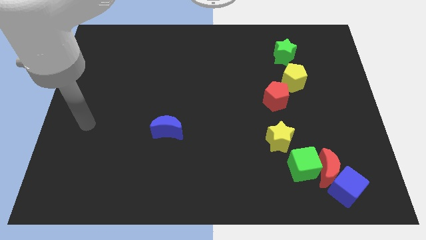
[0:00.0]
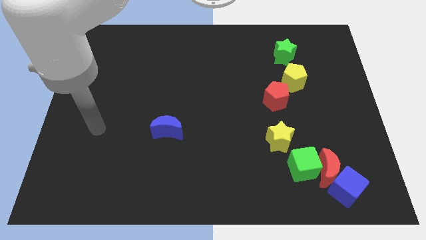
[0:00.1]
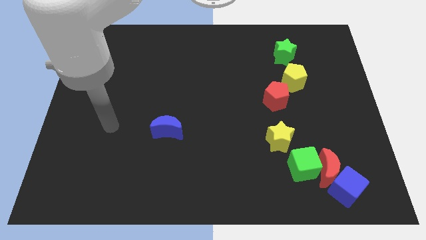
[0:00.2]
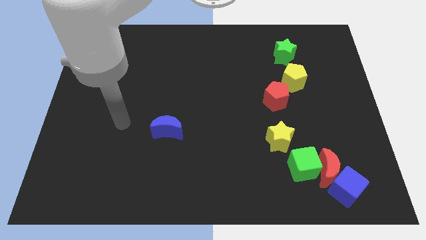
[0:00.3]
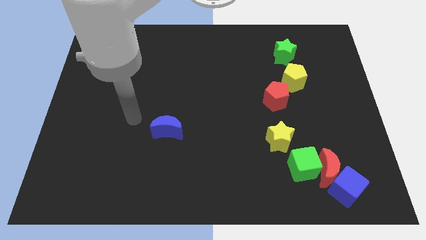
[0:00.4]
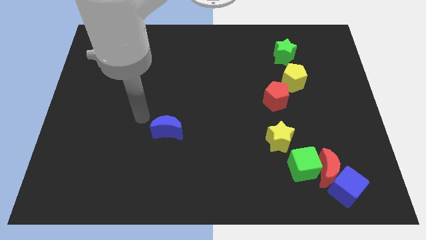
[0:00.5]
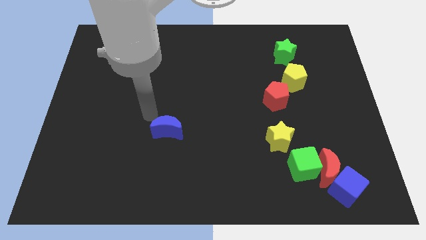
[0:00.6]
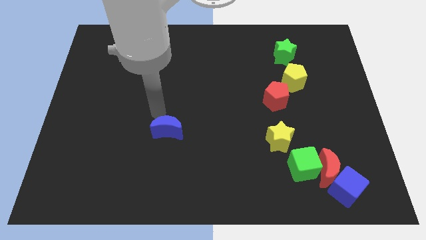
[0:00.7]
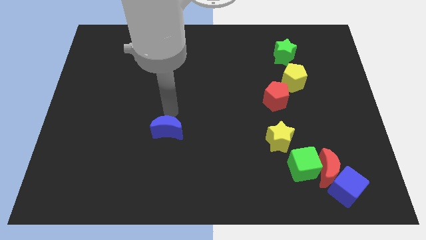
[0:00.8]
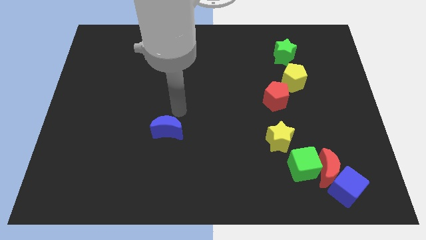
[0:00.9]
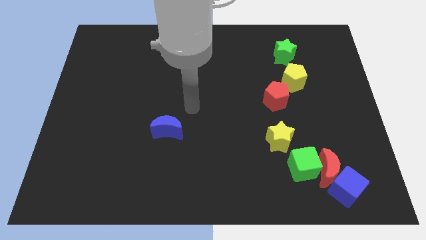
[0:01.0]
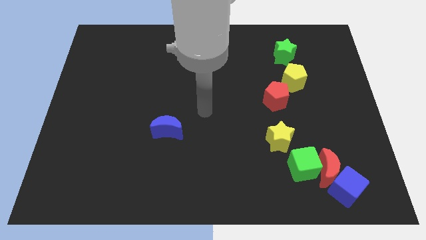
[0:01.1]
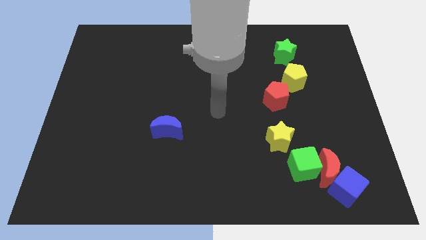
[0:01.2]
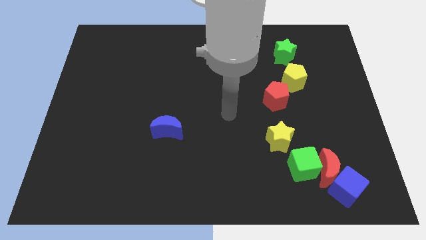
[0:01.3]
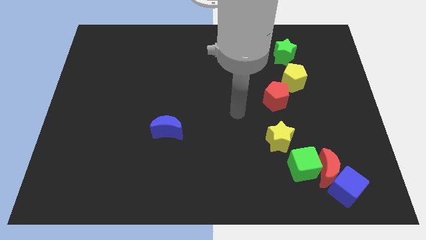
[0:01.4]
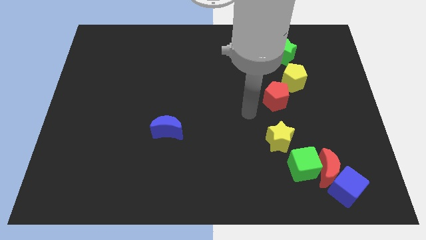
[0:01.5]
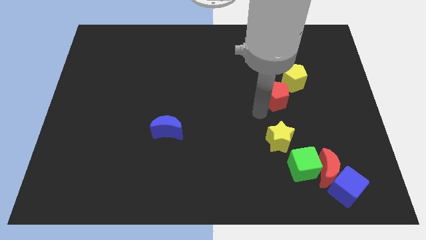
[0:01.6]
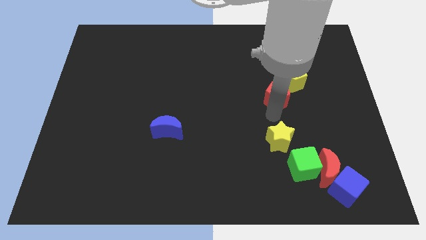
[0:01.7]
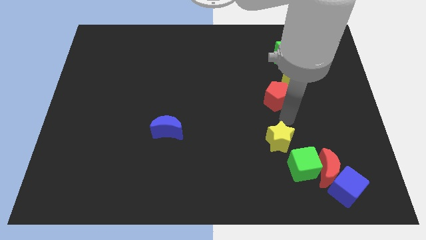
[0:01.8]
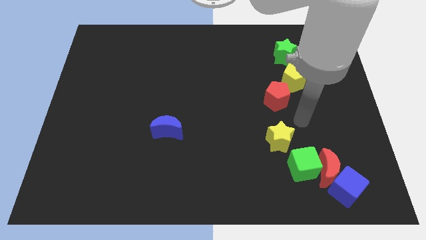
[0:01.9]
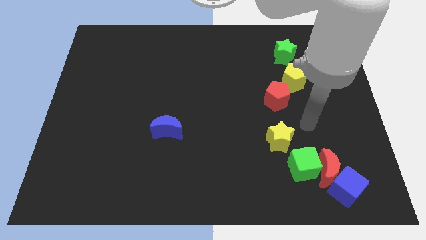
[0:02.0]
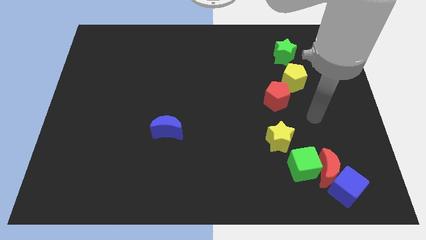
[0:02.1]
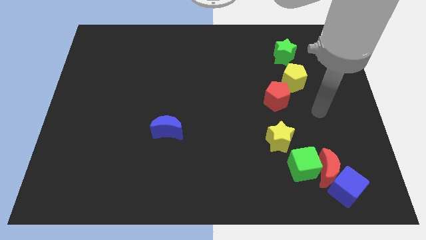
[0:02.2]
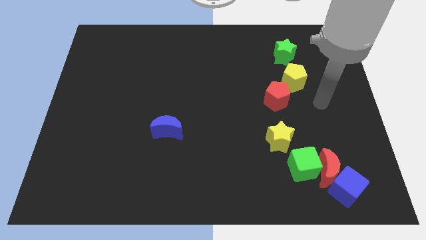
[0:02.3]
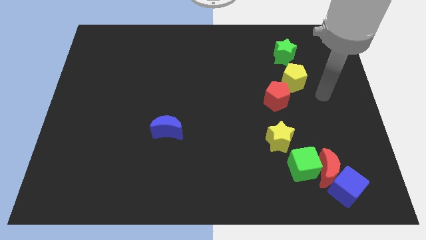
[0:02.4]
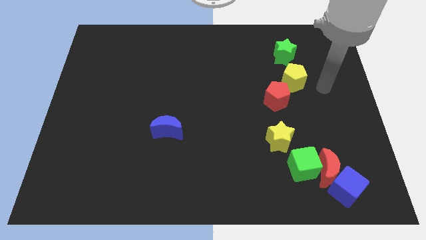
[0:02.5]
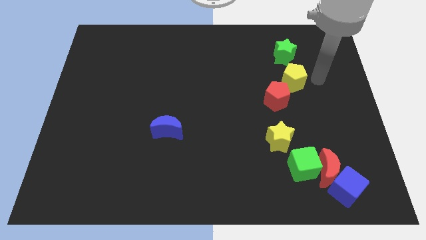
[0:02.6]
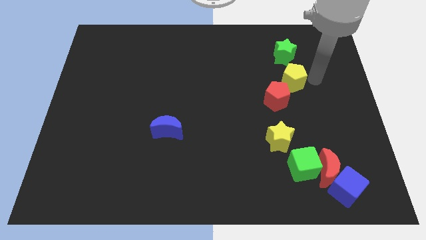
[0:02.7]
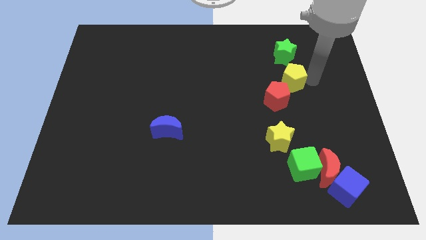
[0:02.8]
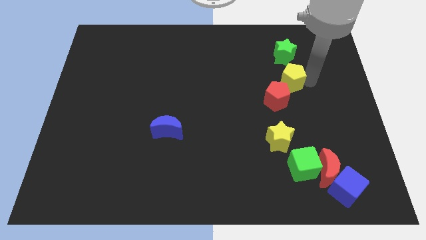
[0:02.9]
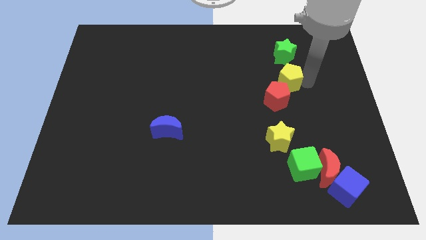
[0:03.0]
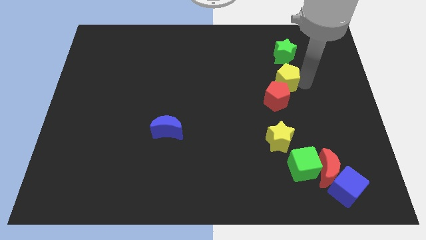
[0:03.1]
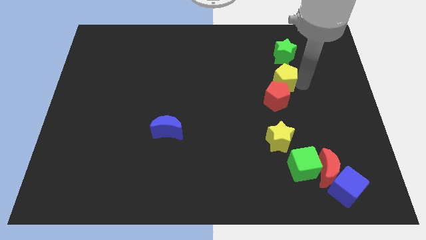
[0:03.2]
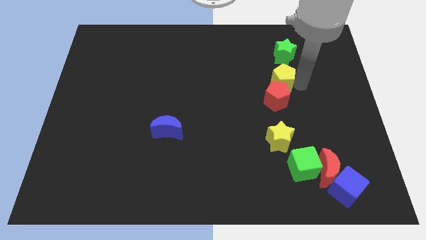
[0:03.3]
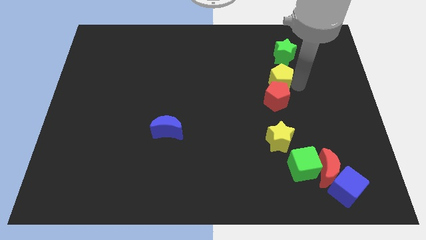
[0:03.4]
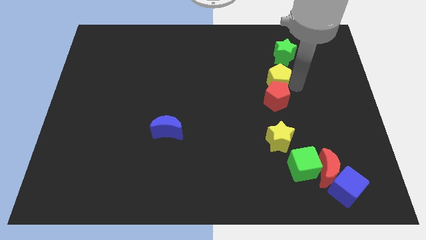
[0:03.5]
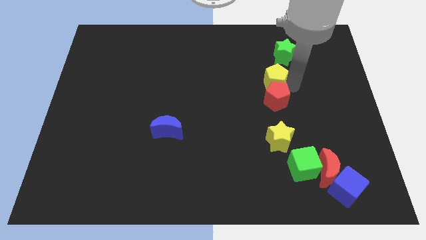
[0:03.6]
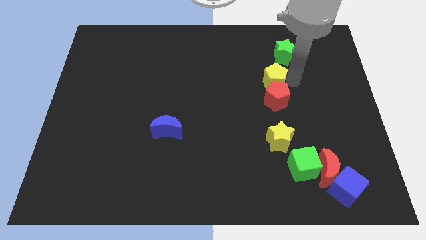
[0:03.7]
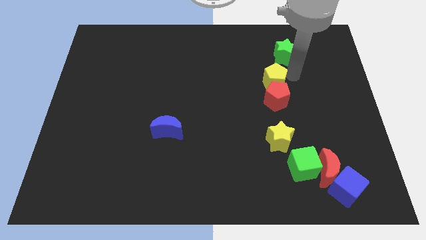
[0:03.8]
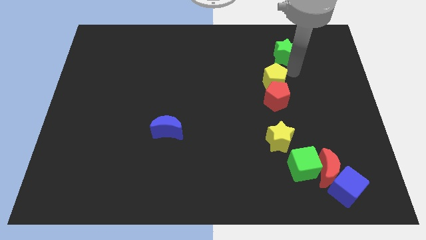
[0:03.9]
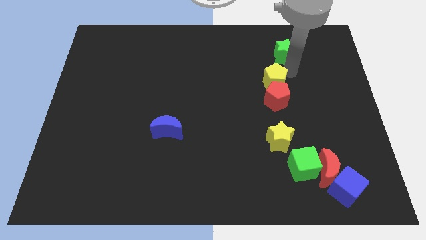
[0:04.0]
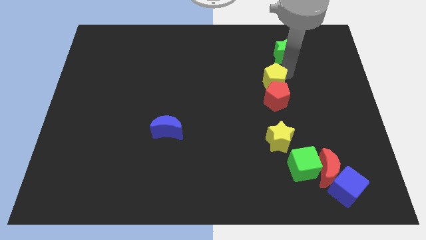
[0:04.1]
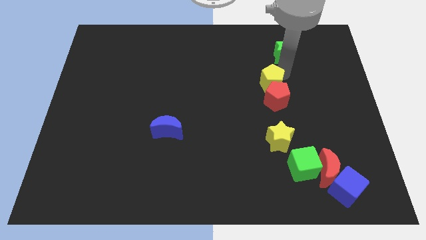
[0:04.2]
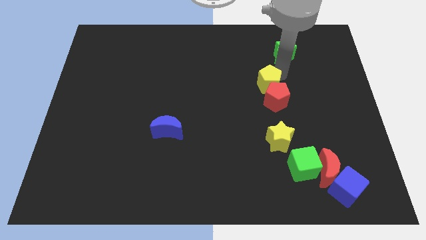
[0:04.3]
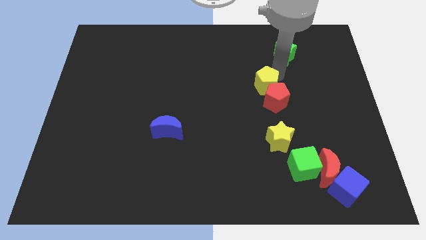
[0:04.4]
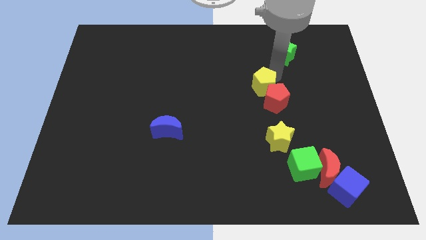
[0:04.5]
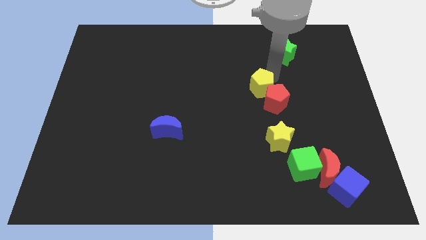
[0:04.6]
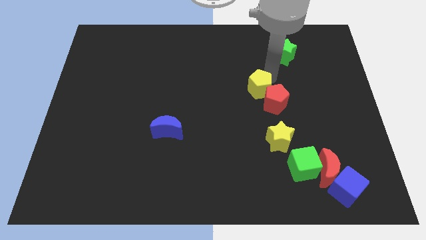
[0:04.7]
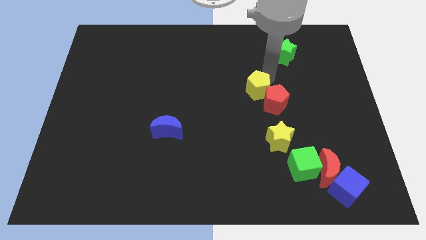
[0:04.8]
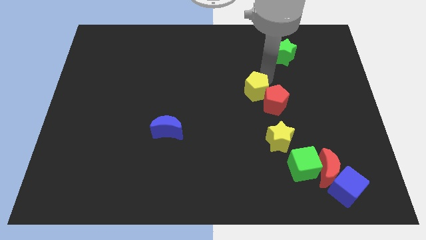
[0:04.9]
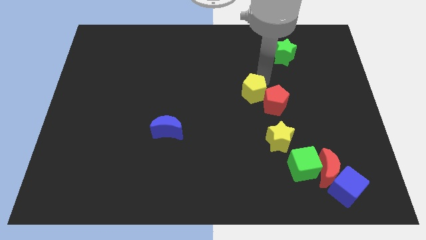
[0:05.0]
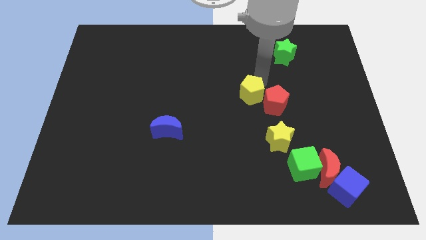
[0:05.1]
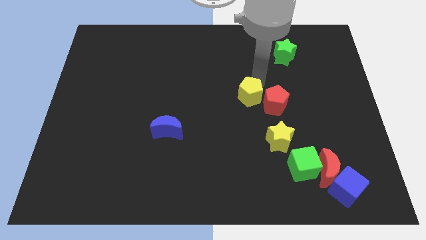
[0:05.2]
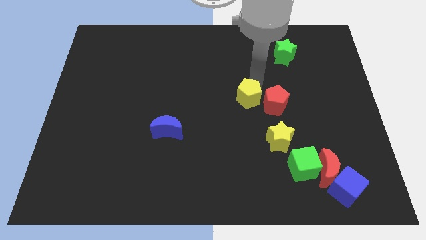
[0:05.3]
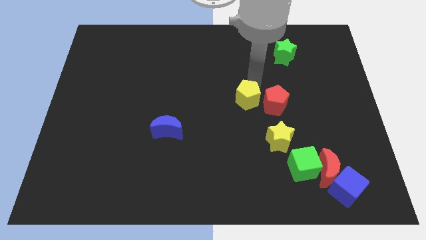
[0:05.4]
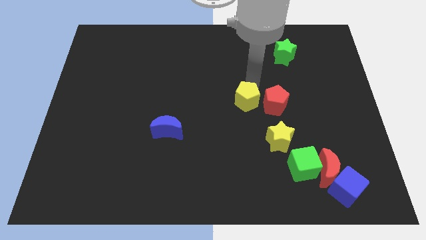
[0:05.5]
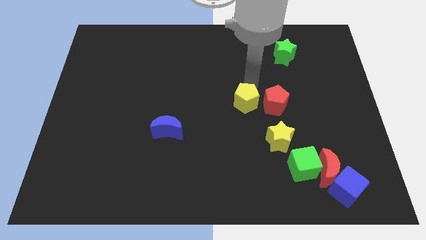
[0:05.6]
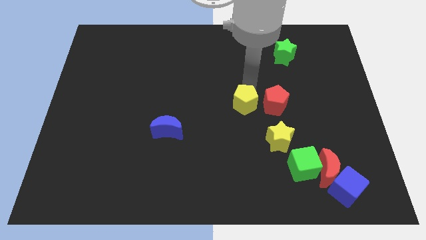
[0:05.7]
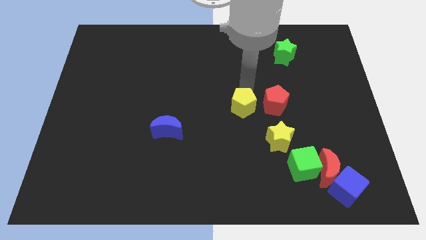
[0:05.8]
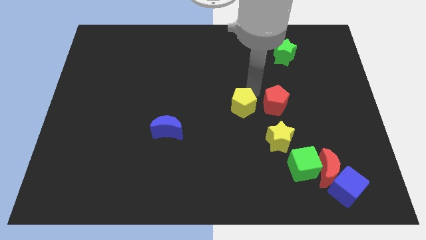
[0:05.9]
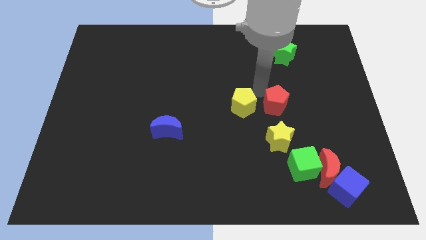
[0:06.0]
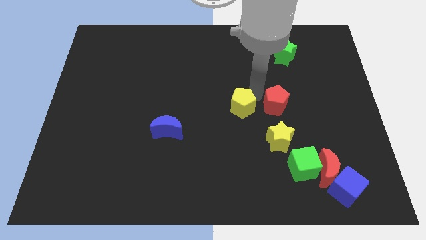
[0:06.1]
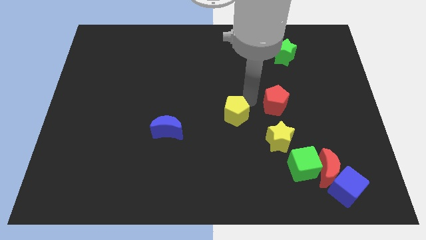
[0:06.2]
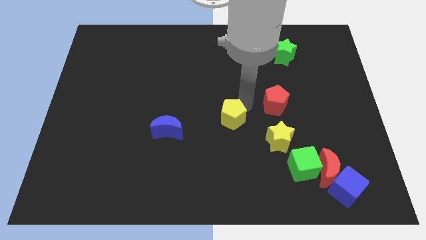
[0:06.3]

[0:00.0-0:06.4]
slide the yellow pentagon right of the blue moon
